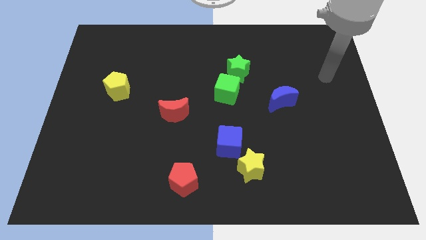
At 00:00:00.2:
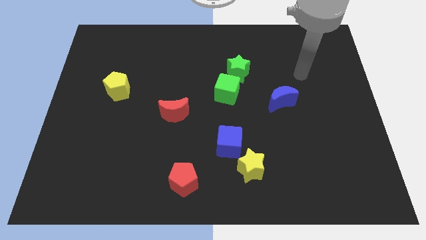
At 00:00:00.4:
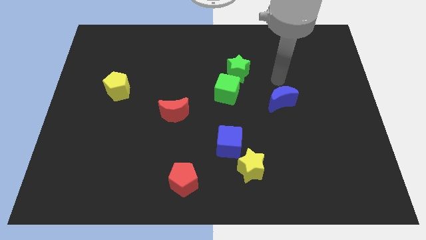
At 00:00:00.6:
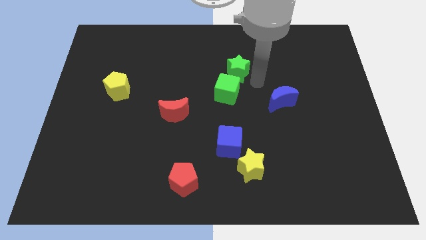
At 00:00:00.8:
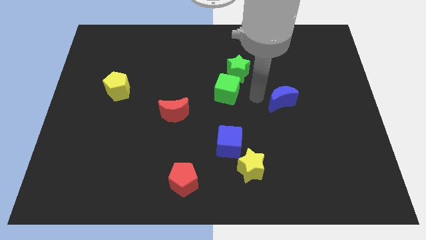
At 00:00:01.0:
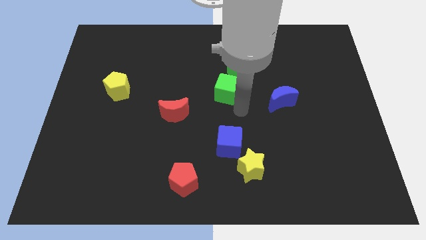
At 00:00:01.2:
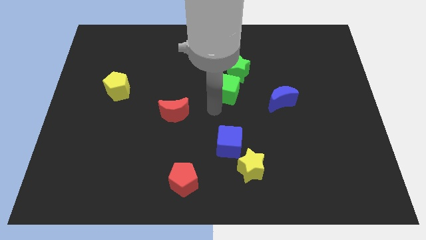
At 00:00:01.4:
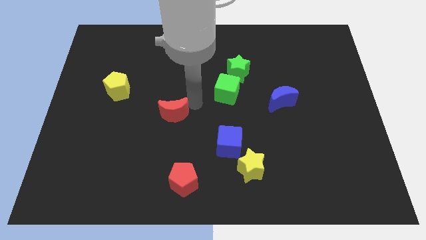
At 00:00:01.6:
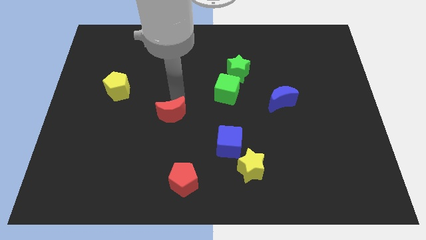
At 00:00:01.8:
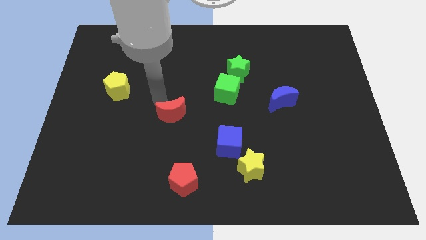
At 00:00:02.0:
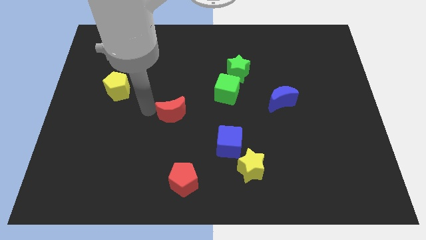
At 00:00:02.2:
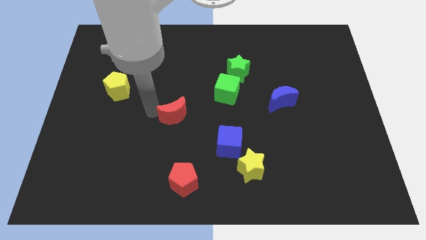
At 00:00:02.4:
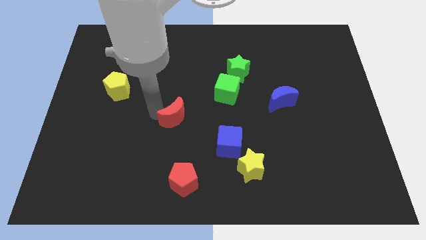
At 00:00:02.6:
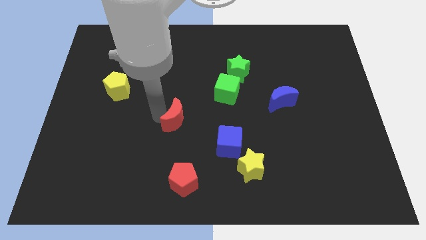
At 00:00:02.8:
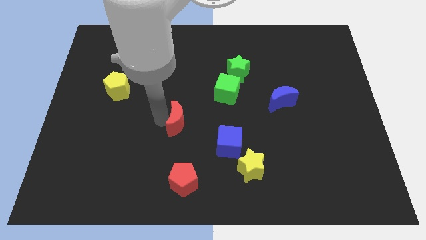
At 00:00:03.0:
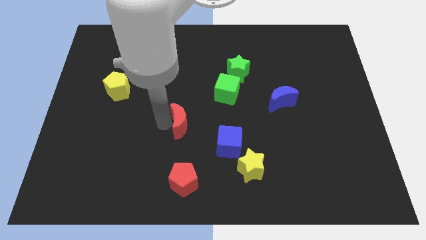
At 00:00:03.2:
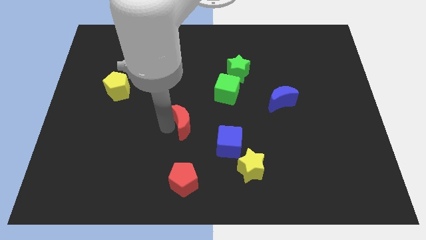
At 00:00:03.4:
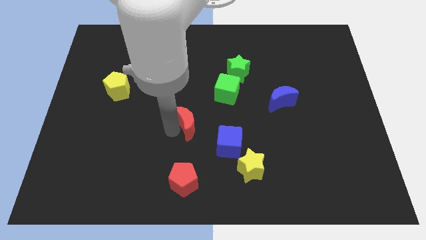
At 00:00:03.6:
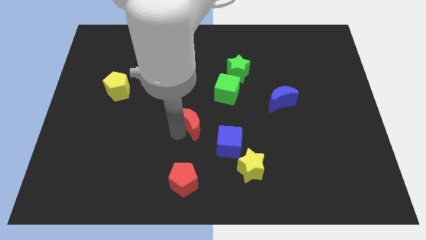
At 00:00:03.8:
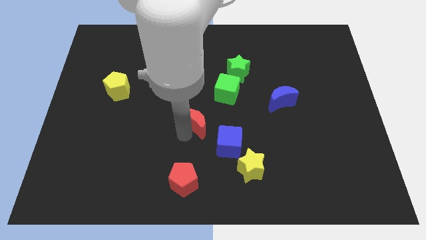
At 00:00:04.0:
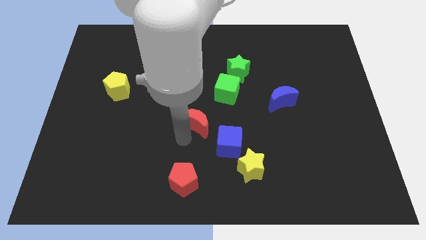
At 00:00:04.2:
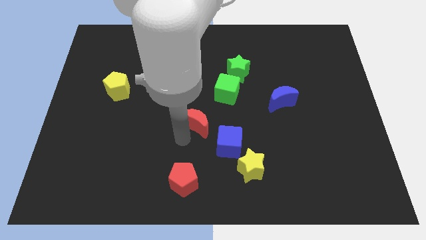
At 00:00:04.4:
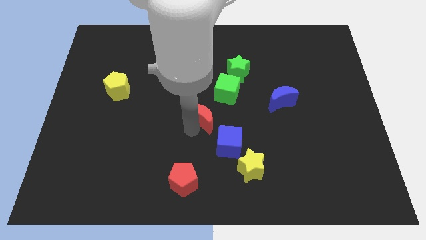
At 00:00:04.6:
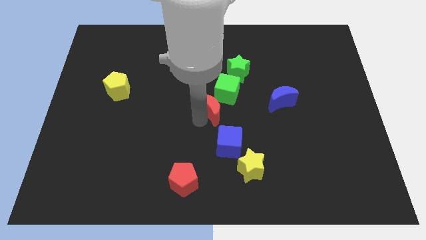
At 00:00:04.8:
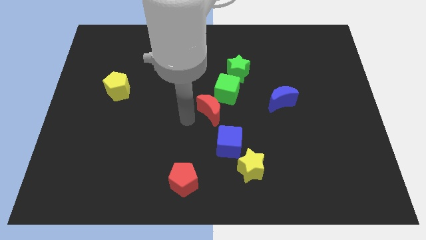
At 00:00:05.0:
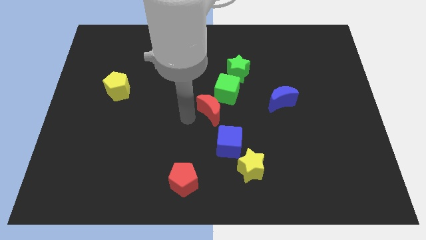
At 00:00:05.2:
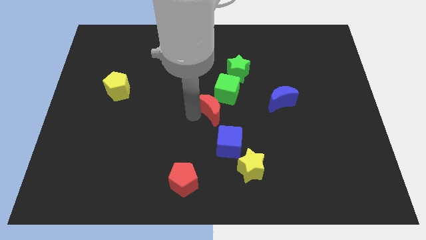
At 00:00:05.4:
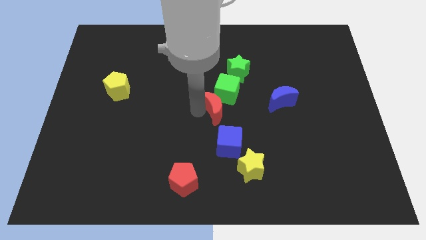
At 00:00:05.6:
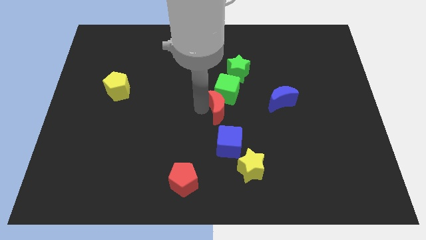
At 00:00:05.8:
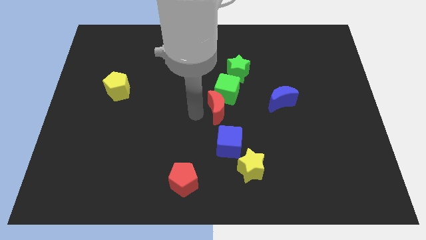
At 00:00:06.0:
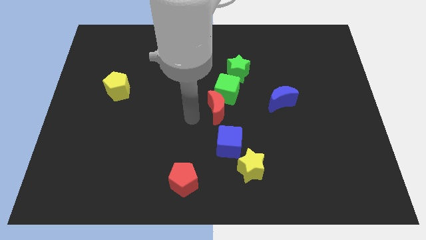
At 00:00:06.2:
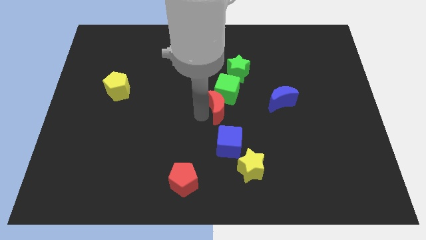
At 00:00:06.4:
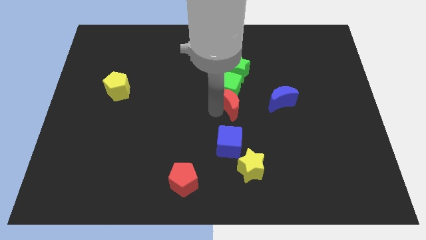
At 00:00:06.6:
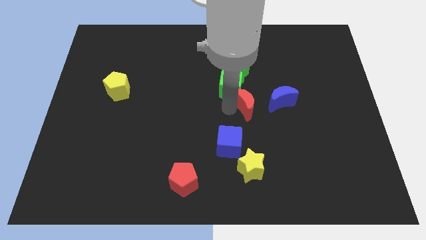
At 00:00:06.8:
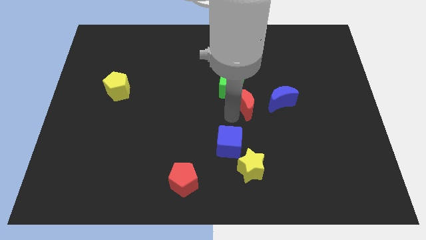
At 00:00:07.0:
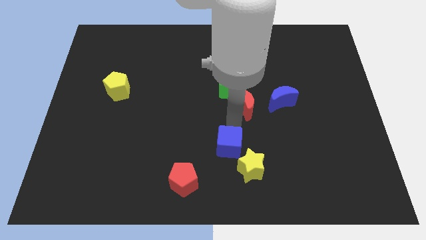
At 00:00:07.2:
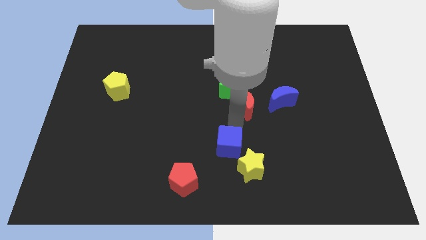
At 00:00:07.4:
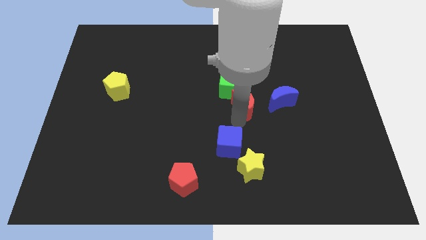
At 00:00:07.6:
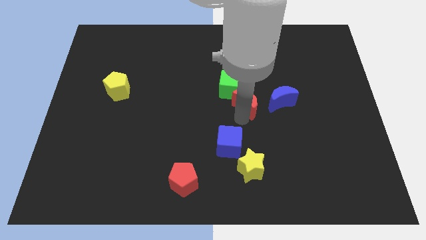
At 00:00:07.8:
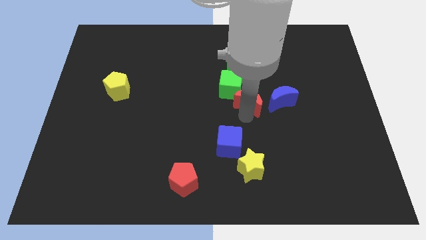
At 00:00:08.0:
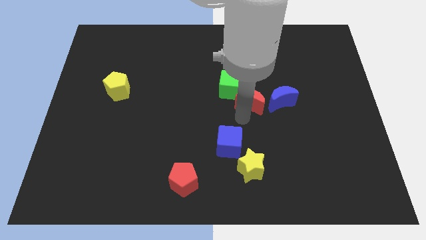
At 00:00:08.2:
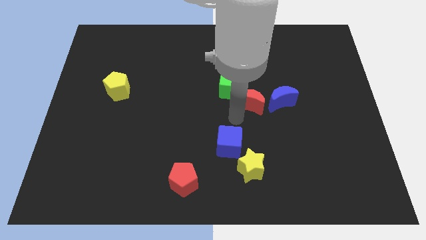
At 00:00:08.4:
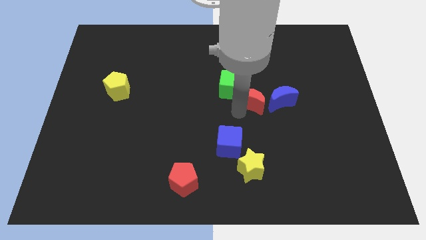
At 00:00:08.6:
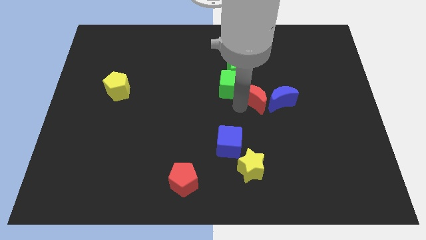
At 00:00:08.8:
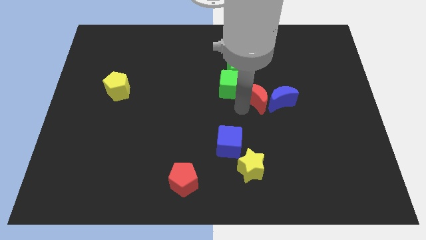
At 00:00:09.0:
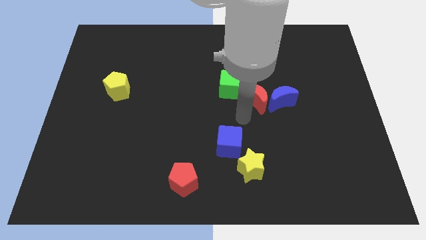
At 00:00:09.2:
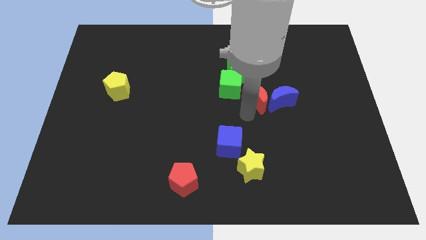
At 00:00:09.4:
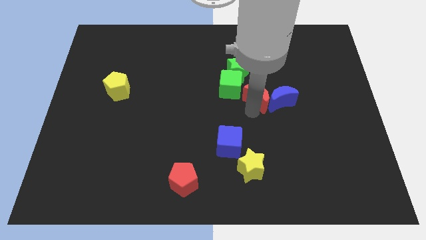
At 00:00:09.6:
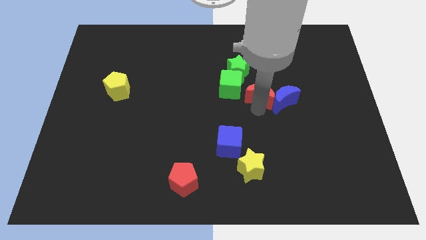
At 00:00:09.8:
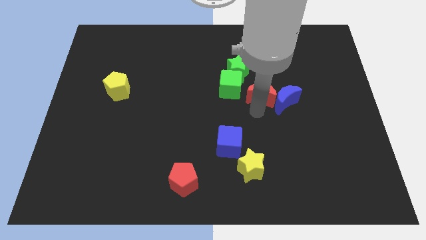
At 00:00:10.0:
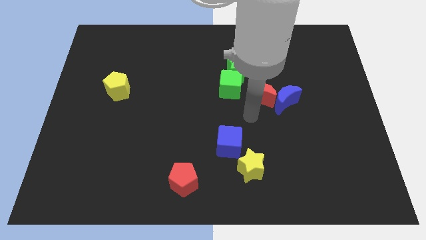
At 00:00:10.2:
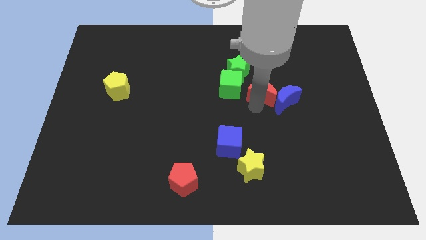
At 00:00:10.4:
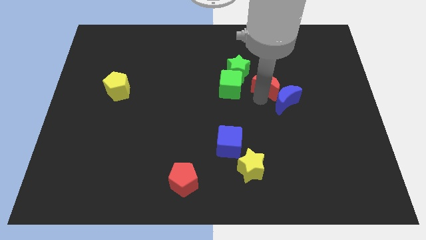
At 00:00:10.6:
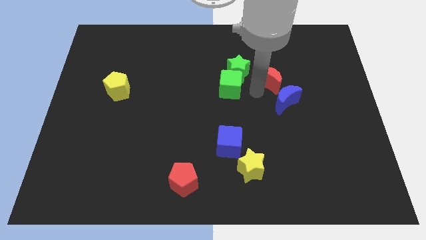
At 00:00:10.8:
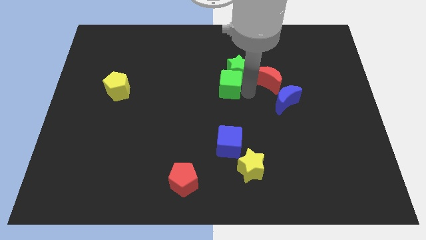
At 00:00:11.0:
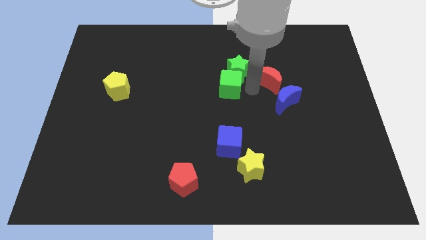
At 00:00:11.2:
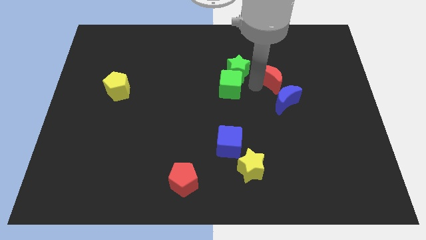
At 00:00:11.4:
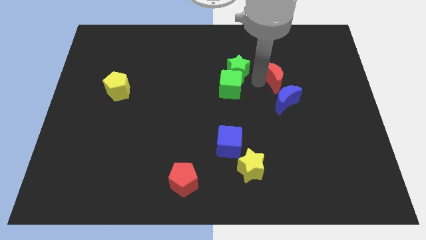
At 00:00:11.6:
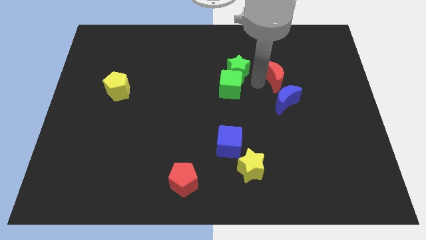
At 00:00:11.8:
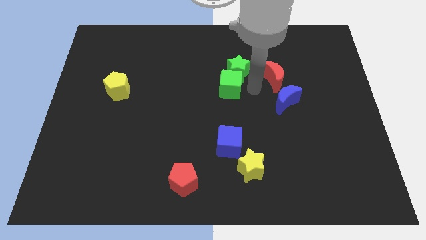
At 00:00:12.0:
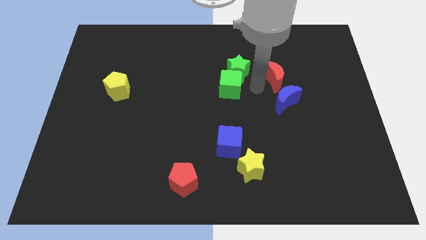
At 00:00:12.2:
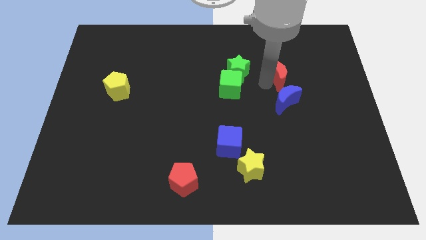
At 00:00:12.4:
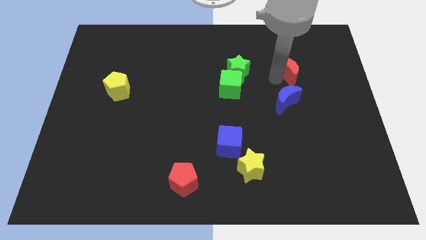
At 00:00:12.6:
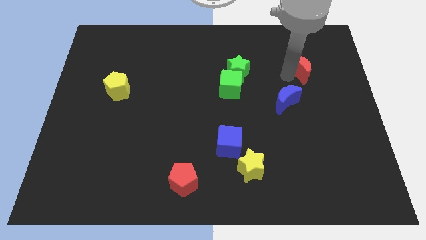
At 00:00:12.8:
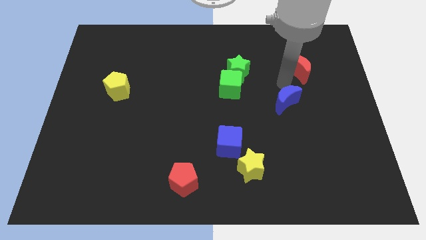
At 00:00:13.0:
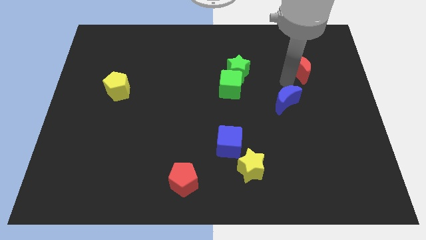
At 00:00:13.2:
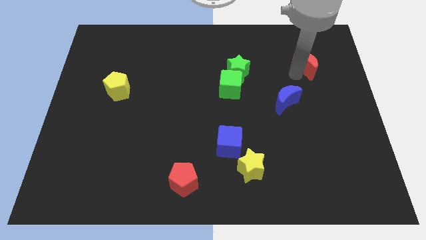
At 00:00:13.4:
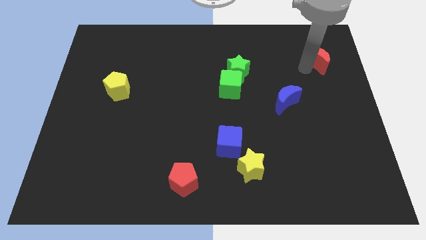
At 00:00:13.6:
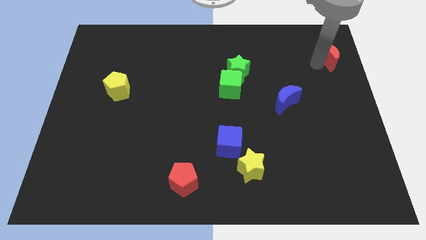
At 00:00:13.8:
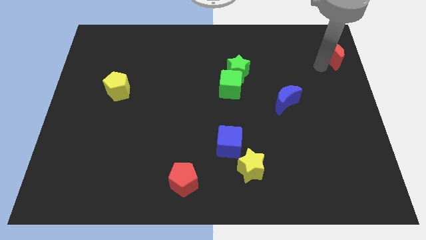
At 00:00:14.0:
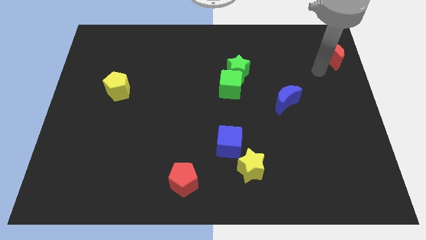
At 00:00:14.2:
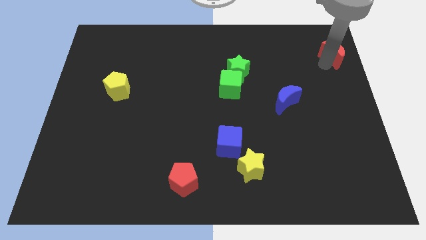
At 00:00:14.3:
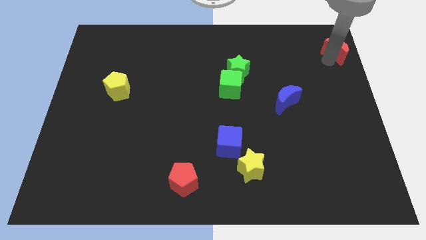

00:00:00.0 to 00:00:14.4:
slide the red moon to the top right
